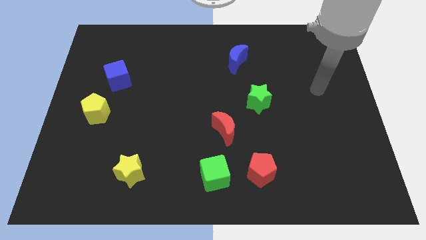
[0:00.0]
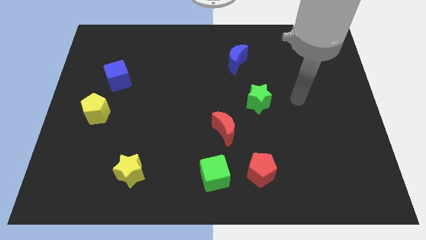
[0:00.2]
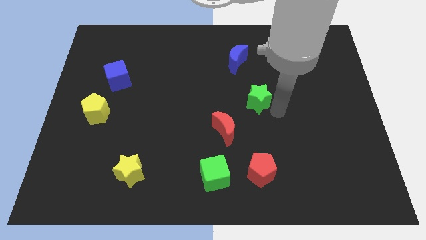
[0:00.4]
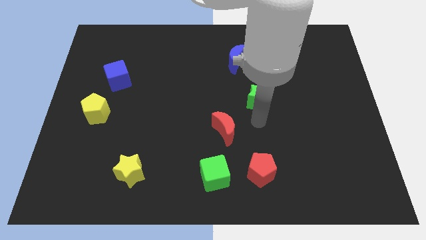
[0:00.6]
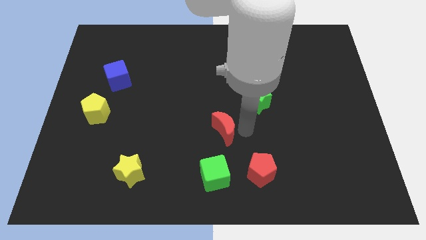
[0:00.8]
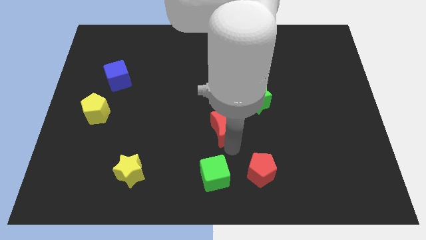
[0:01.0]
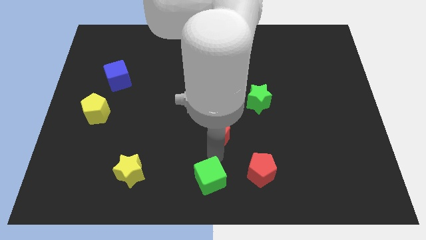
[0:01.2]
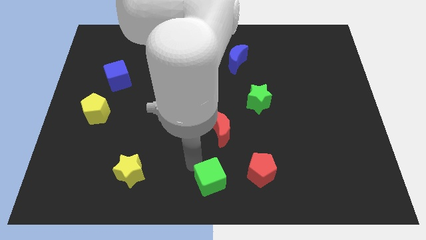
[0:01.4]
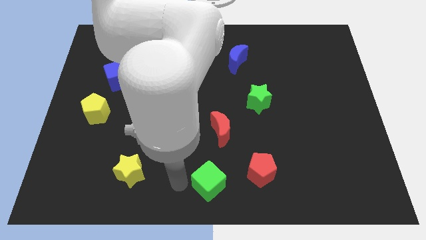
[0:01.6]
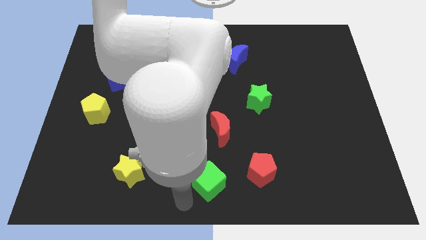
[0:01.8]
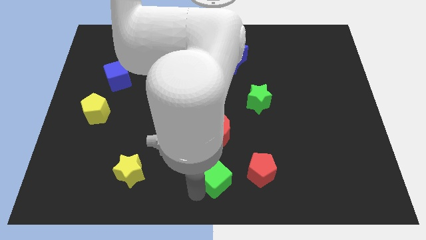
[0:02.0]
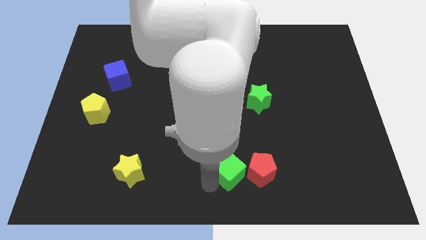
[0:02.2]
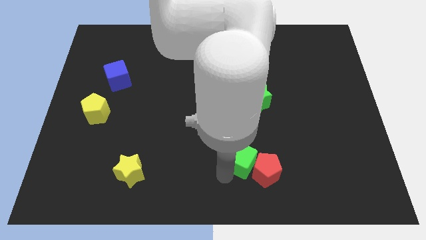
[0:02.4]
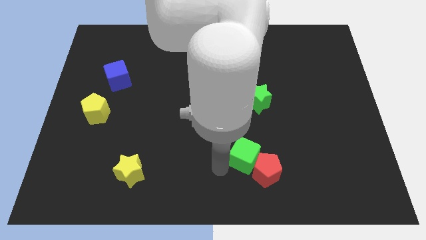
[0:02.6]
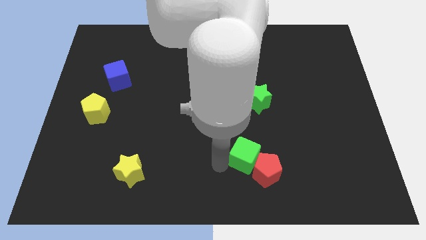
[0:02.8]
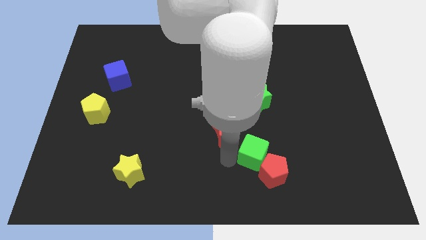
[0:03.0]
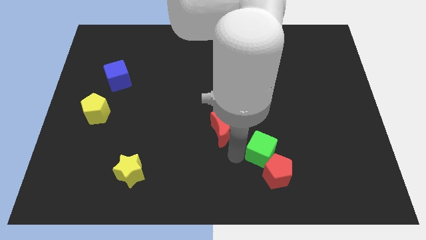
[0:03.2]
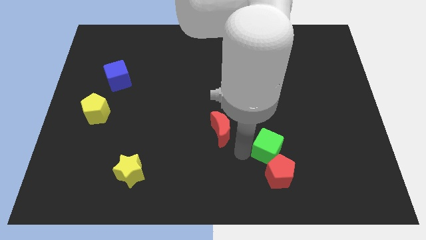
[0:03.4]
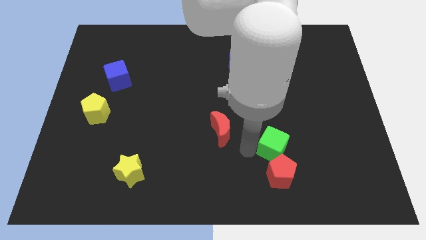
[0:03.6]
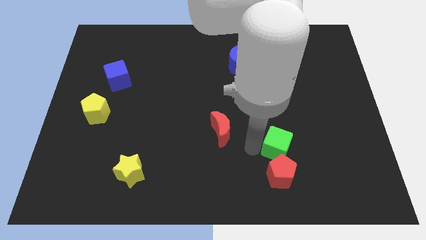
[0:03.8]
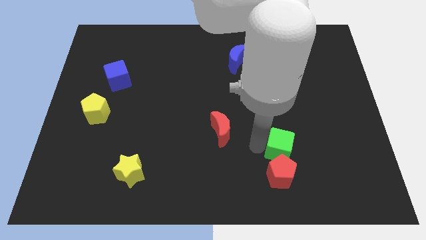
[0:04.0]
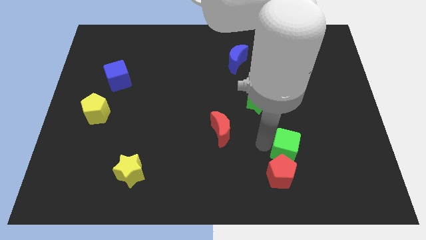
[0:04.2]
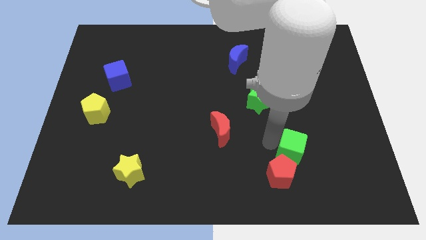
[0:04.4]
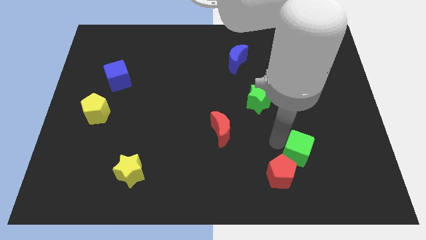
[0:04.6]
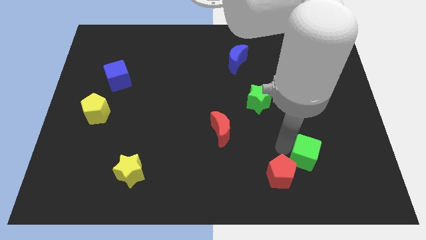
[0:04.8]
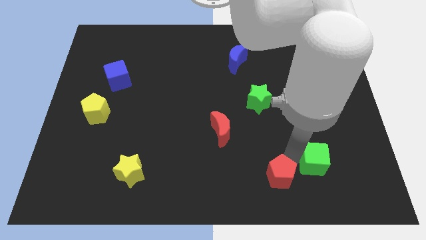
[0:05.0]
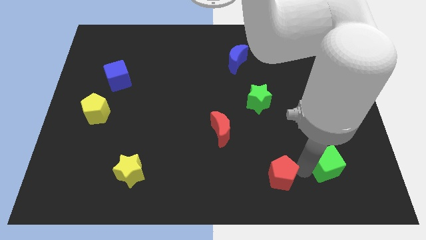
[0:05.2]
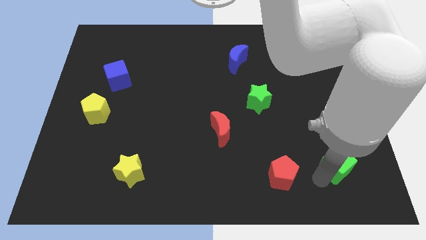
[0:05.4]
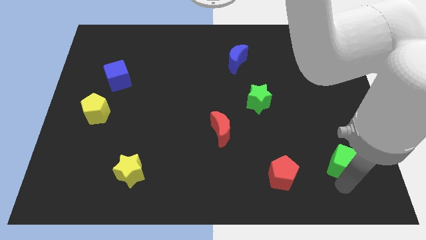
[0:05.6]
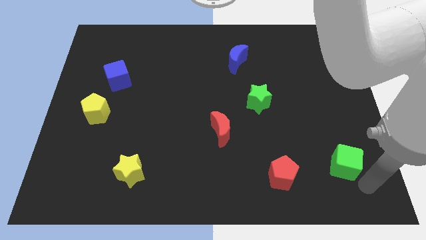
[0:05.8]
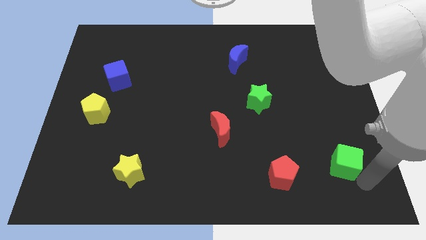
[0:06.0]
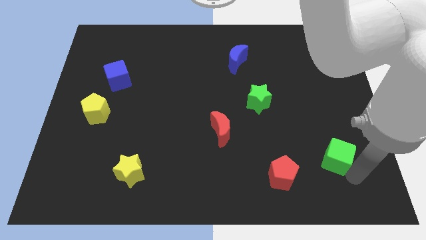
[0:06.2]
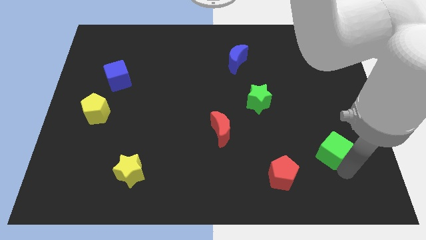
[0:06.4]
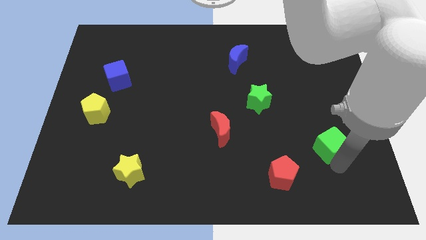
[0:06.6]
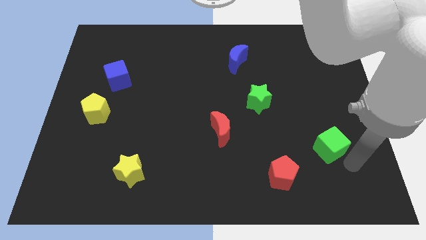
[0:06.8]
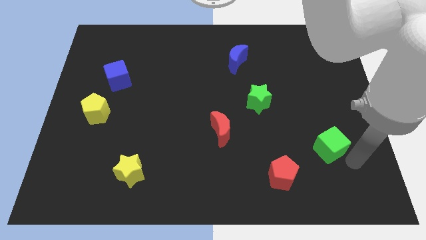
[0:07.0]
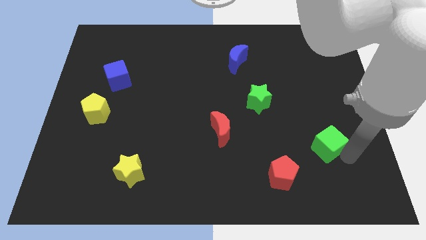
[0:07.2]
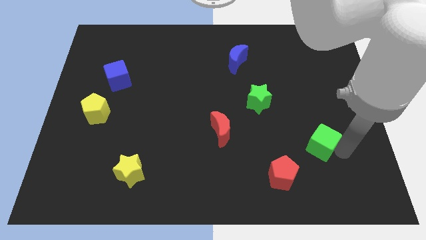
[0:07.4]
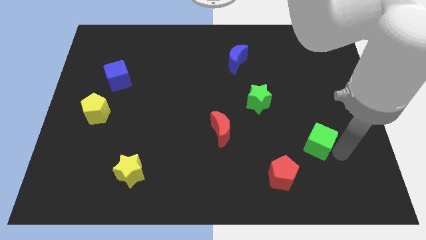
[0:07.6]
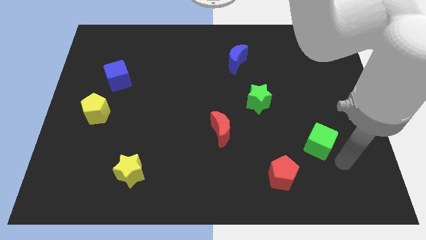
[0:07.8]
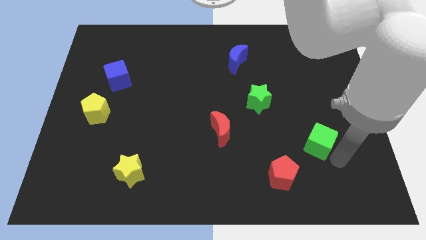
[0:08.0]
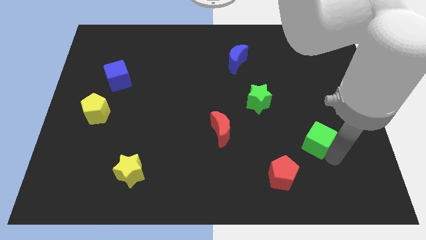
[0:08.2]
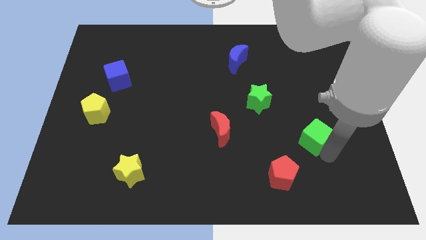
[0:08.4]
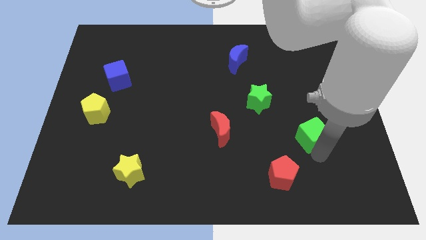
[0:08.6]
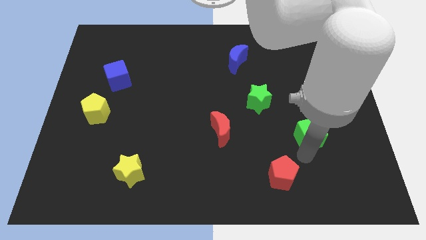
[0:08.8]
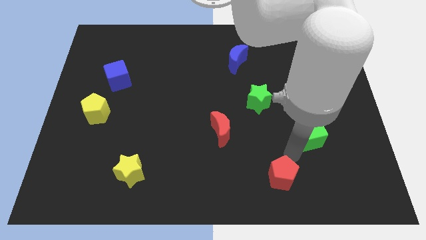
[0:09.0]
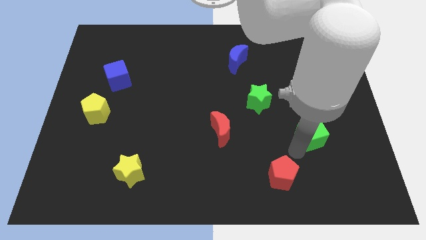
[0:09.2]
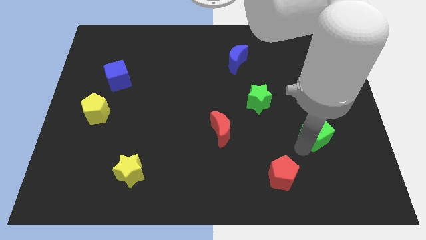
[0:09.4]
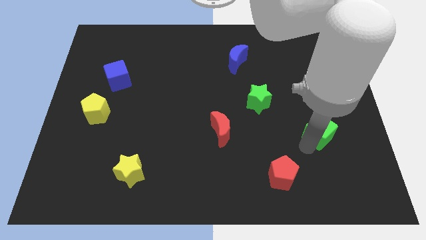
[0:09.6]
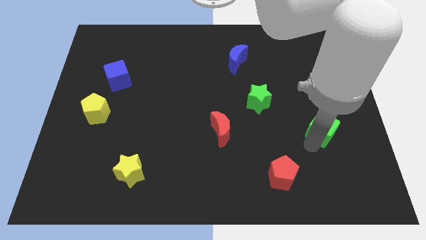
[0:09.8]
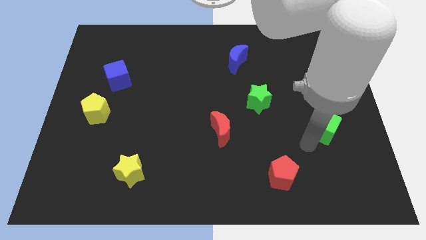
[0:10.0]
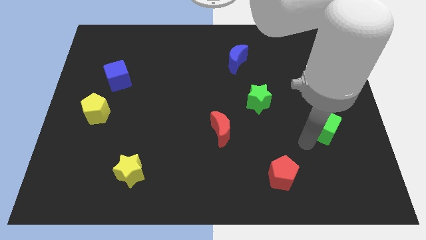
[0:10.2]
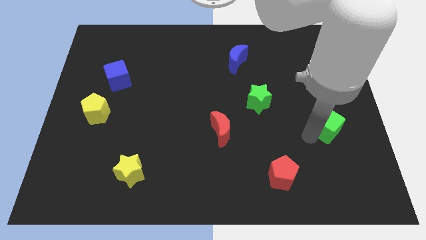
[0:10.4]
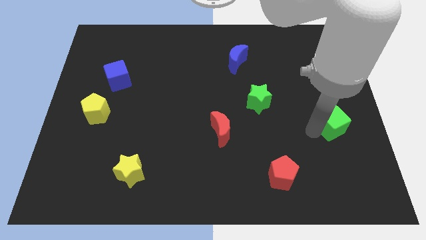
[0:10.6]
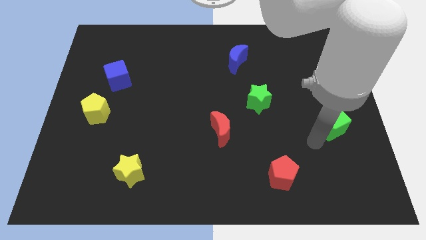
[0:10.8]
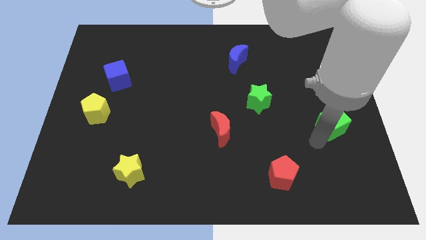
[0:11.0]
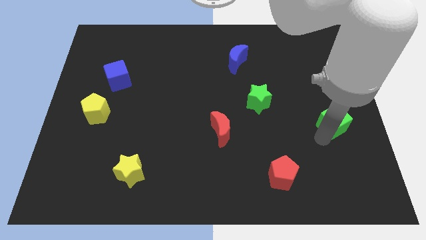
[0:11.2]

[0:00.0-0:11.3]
move the green cube to the center right

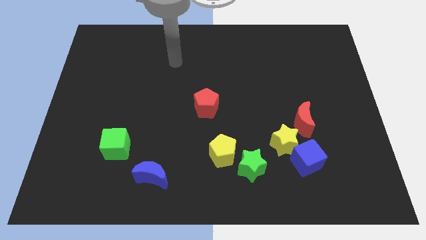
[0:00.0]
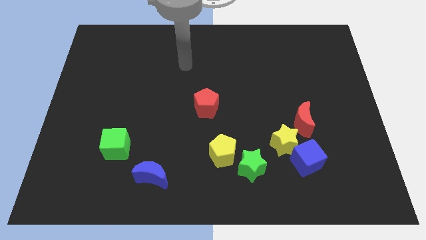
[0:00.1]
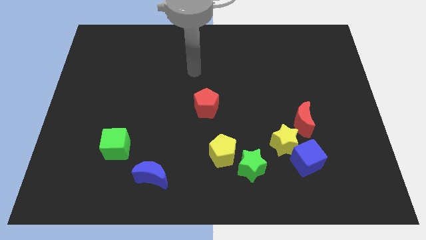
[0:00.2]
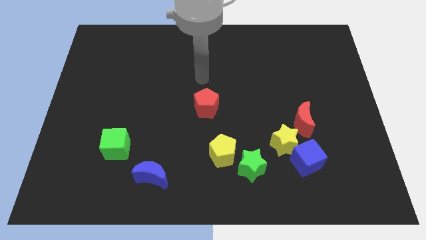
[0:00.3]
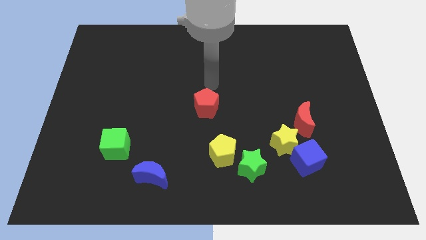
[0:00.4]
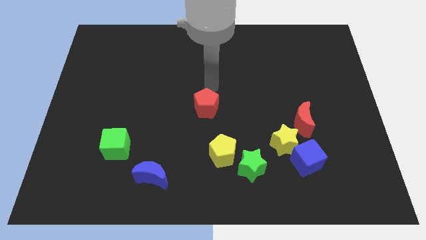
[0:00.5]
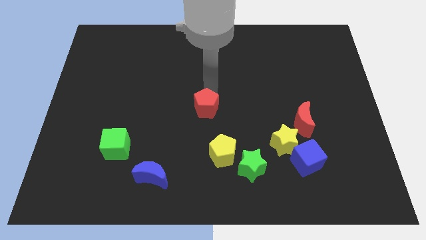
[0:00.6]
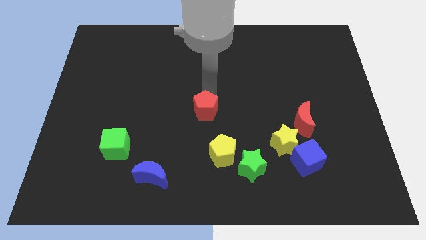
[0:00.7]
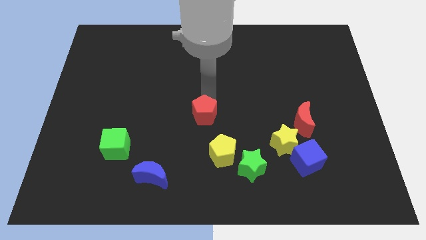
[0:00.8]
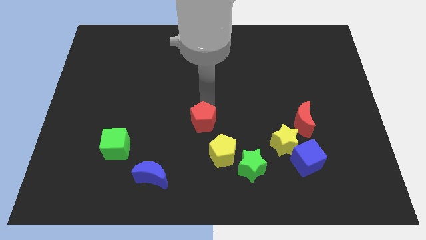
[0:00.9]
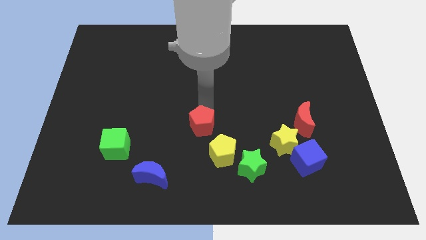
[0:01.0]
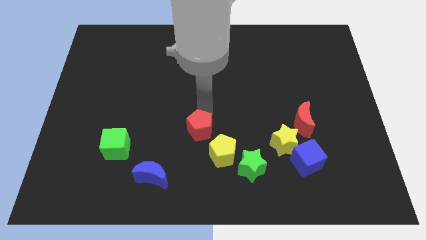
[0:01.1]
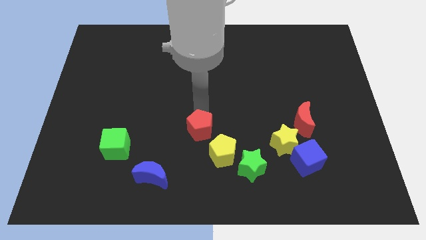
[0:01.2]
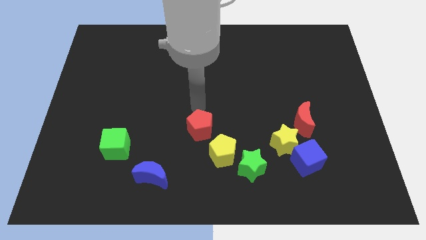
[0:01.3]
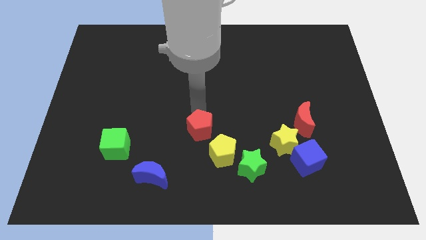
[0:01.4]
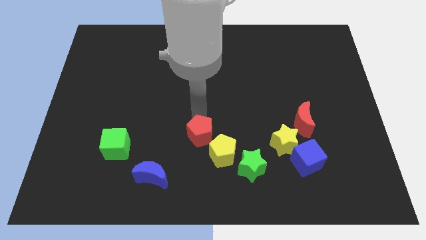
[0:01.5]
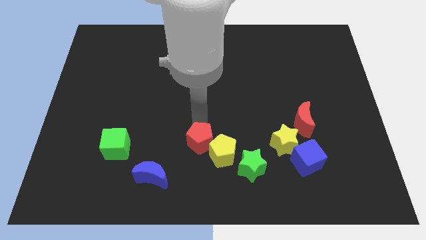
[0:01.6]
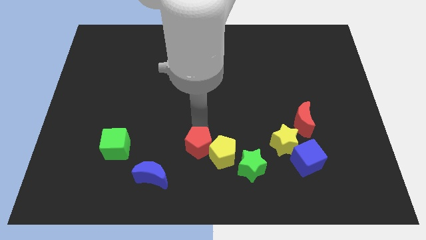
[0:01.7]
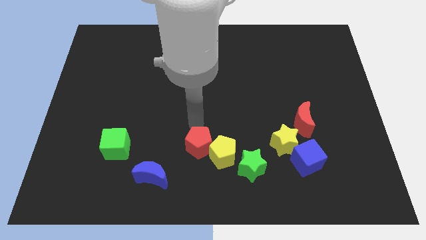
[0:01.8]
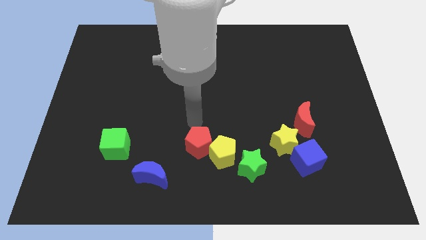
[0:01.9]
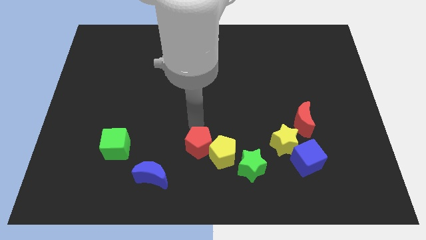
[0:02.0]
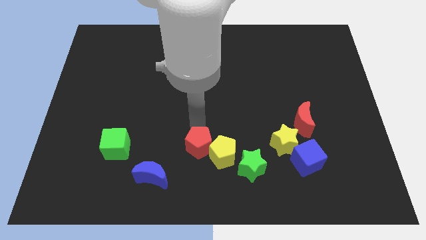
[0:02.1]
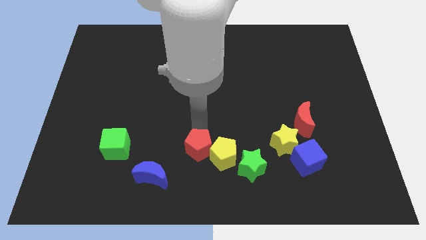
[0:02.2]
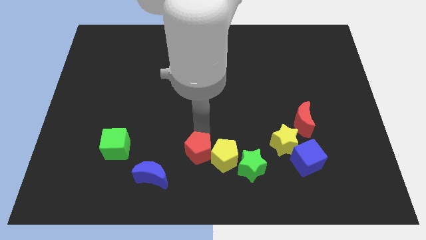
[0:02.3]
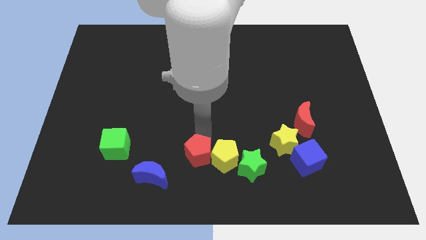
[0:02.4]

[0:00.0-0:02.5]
slide the red pentagon to the bottom side
